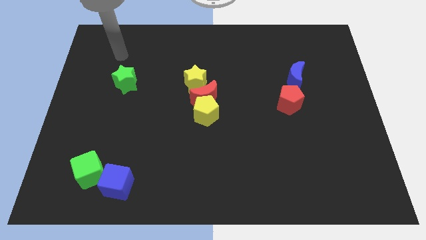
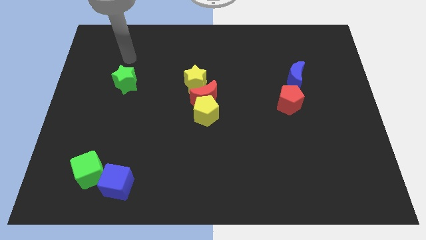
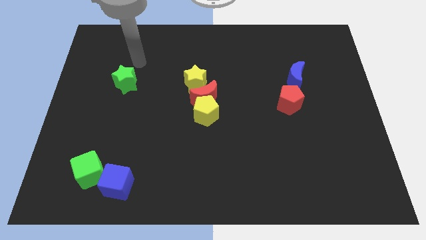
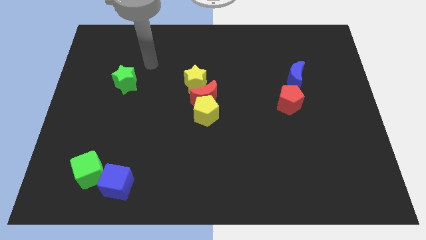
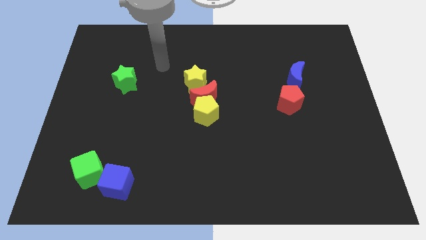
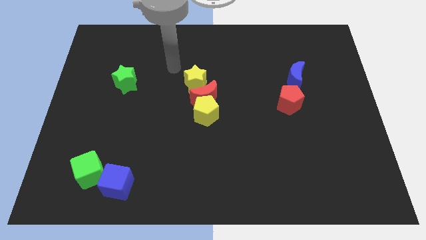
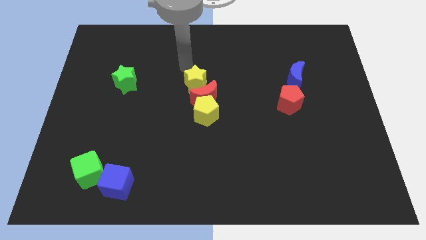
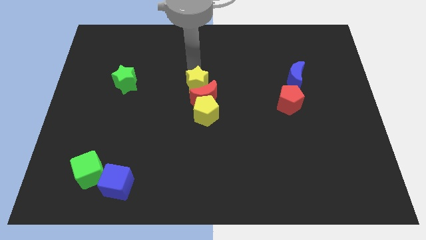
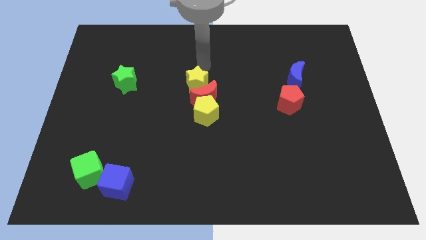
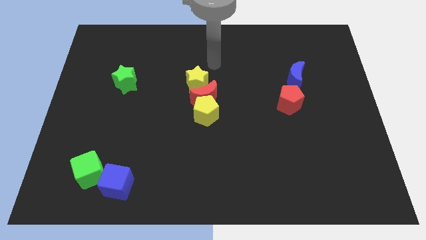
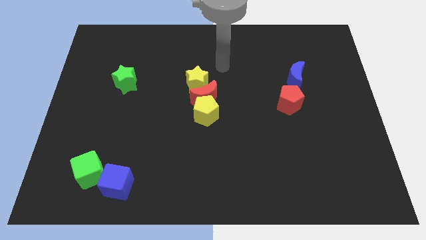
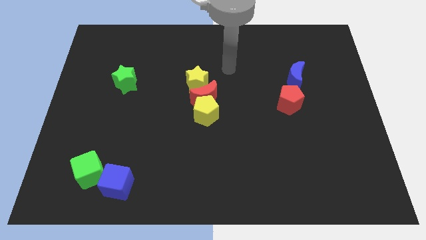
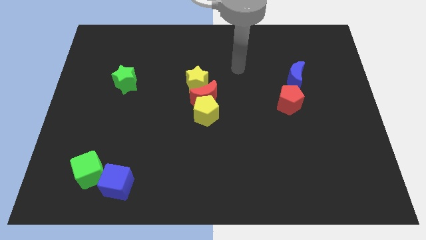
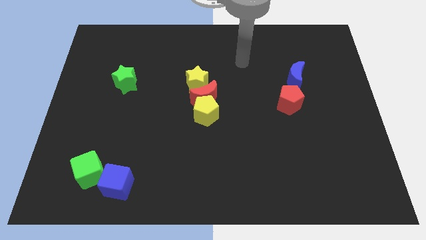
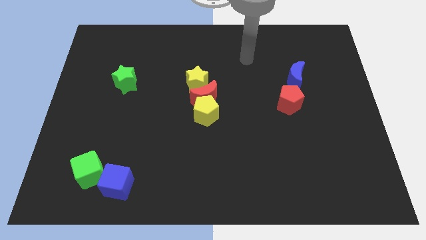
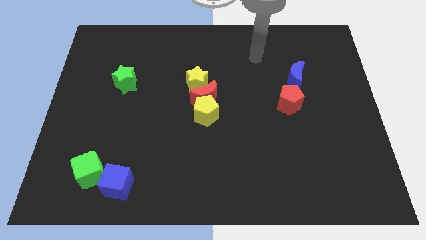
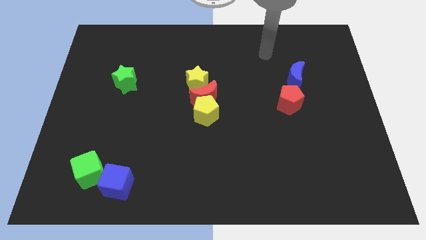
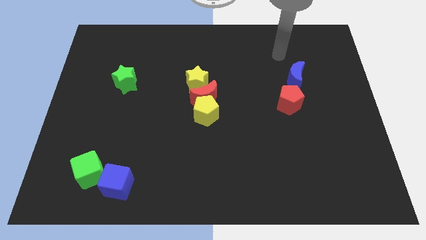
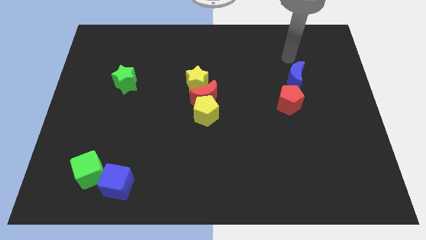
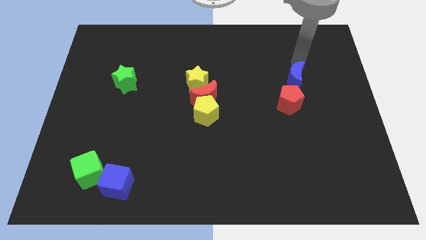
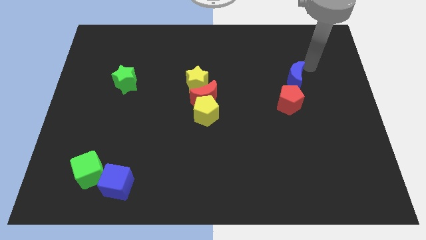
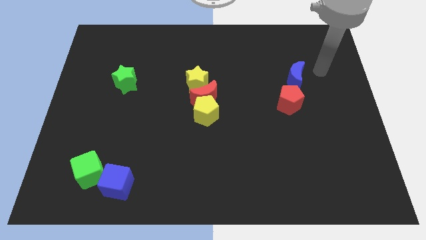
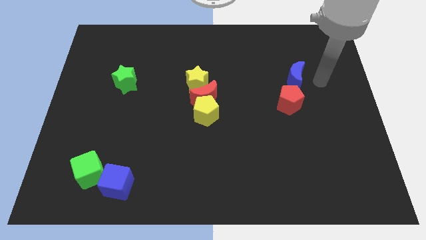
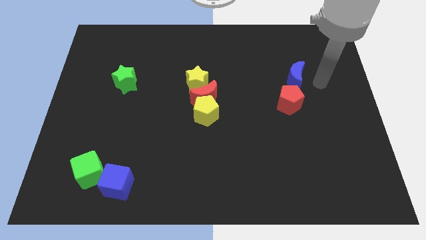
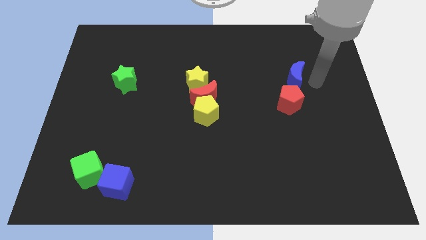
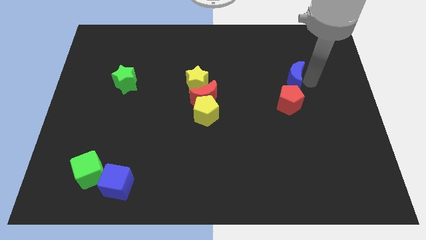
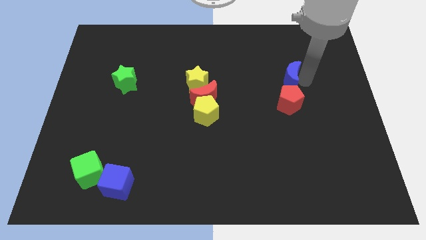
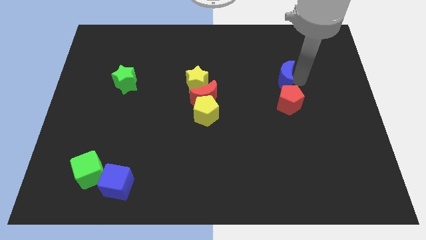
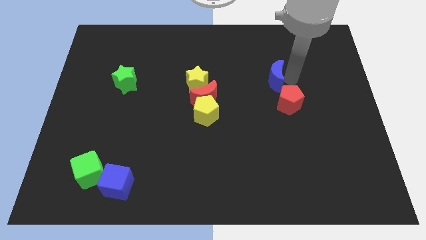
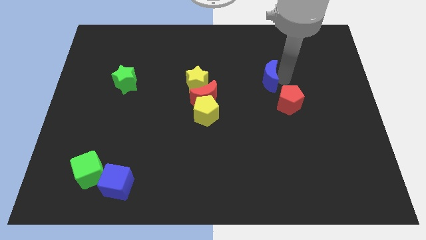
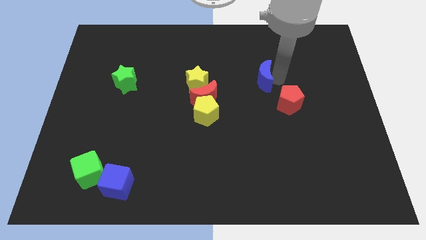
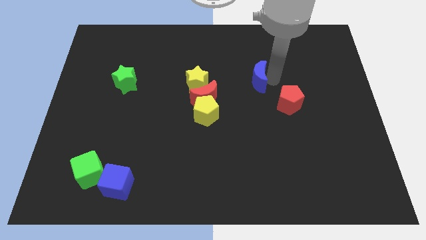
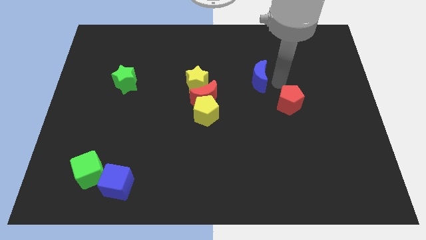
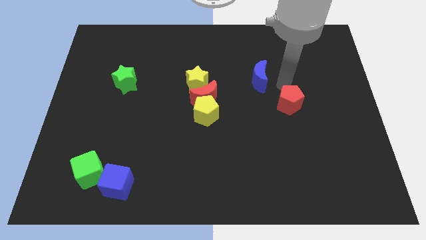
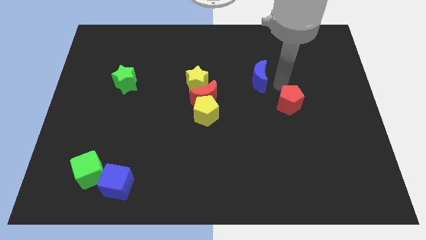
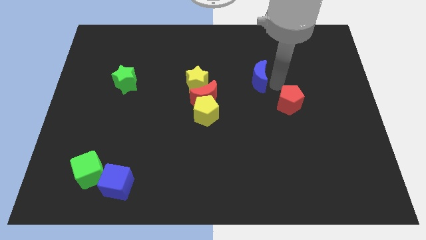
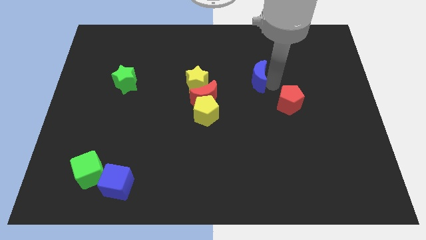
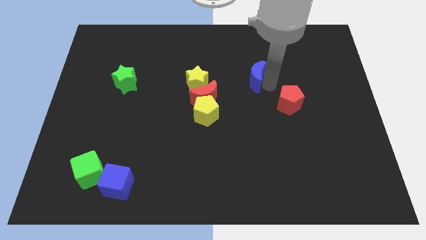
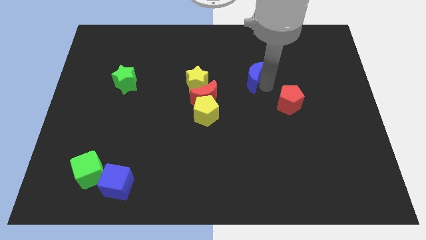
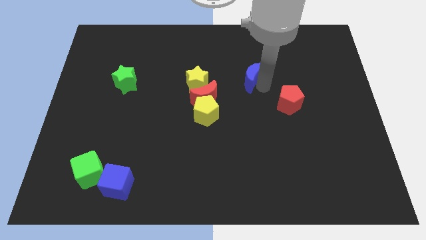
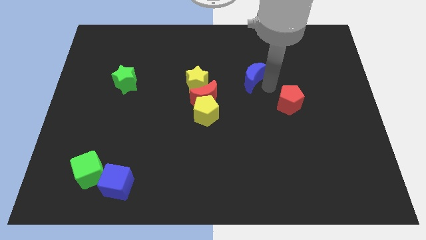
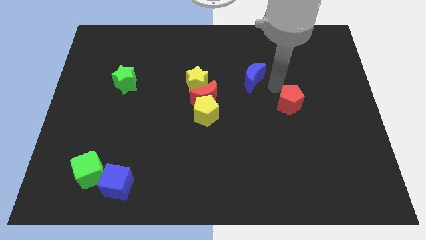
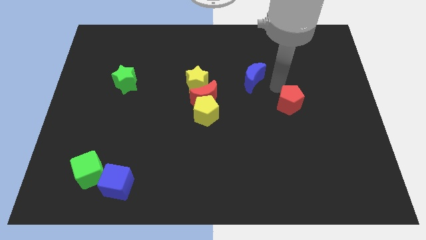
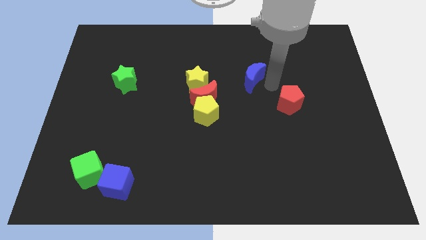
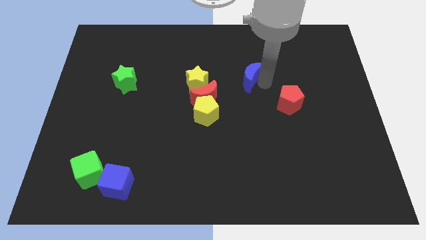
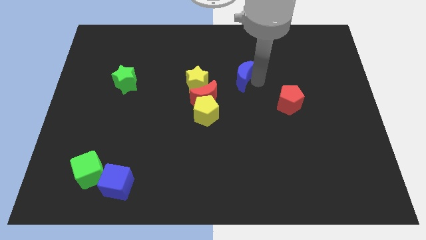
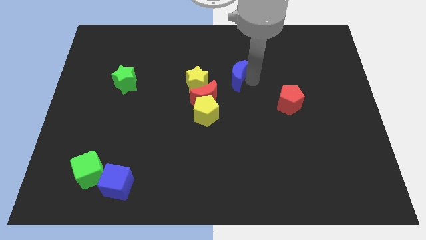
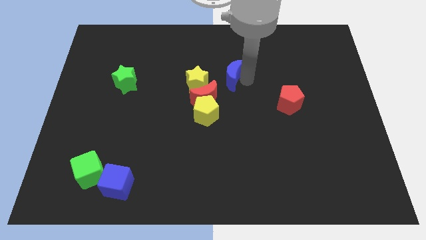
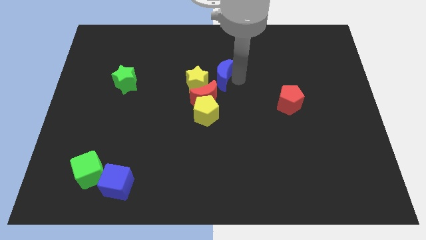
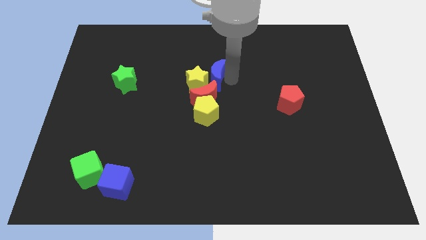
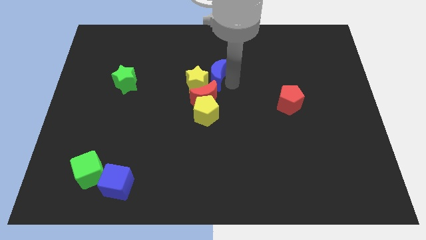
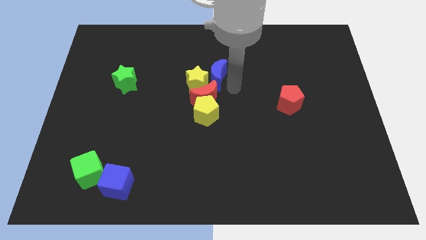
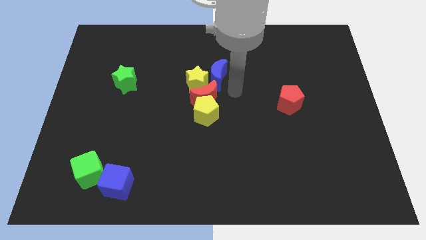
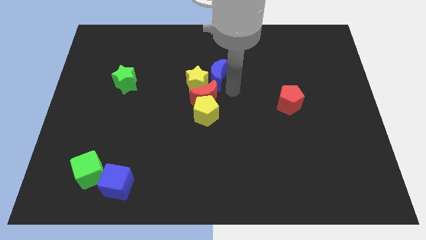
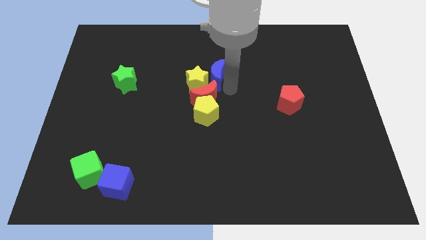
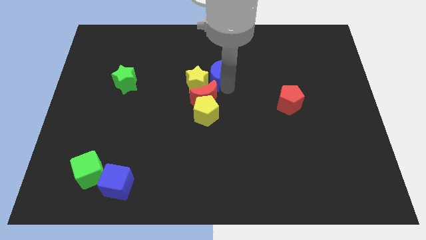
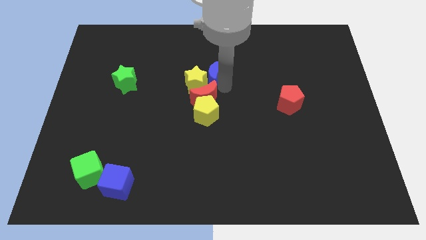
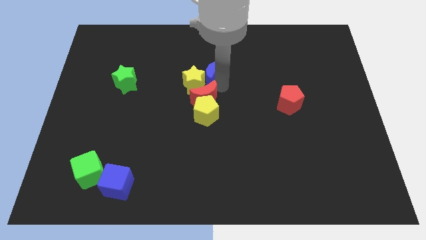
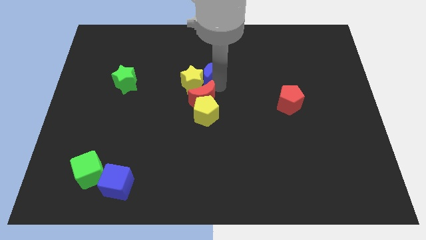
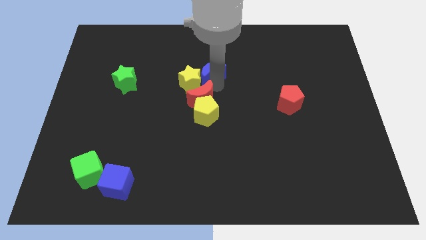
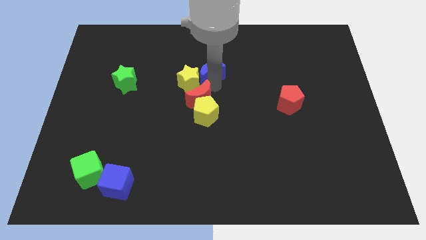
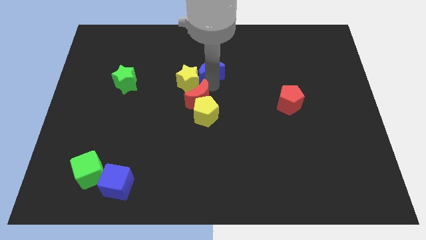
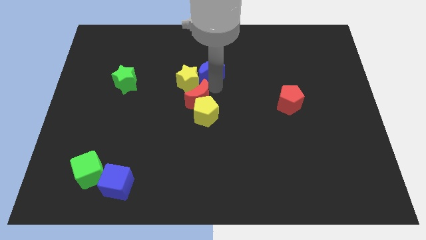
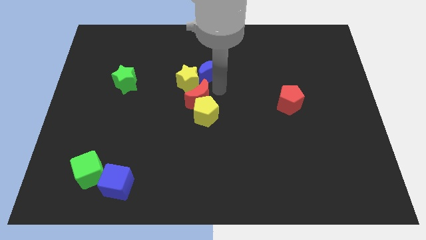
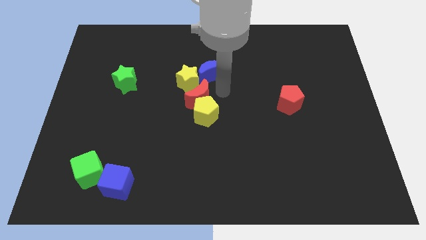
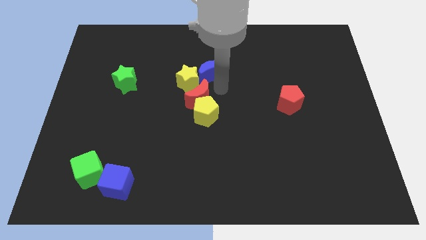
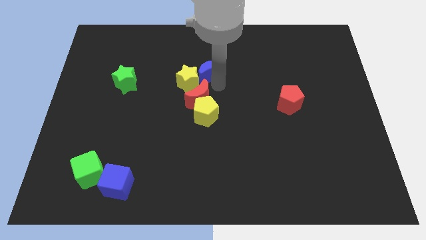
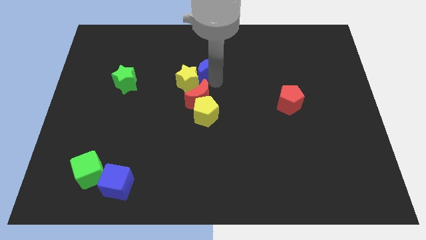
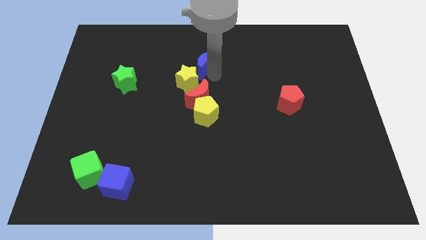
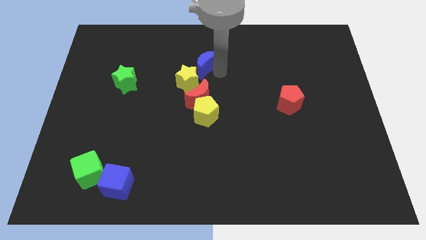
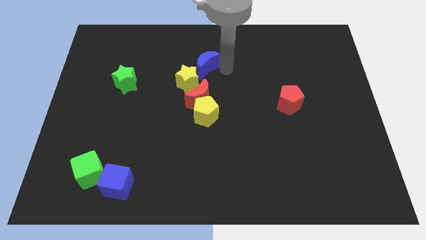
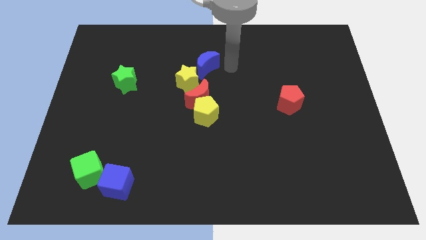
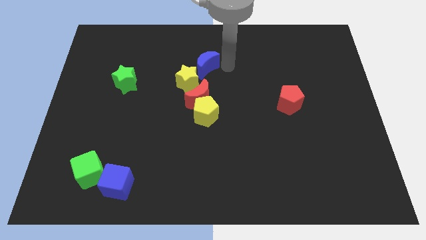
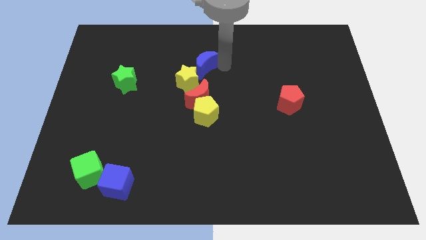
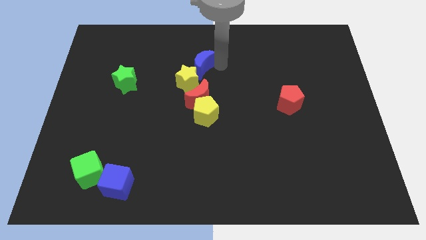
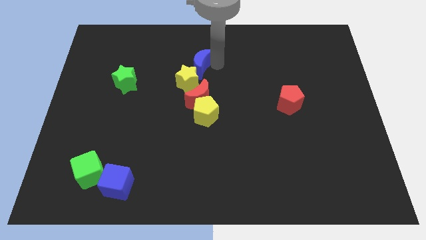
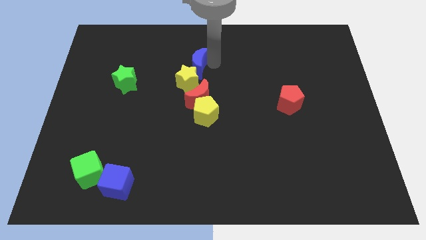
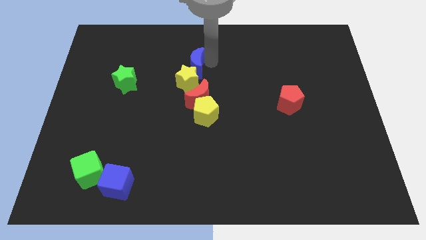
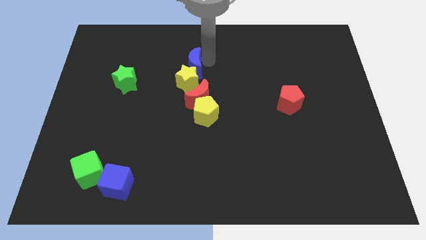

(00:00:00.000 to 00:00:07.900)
move the blue moon diagonally up and to the left of the yellow star
